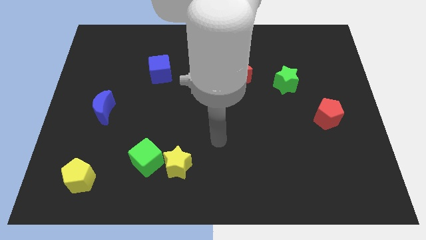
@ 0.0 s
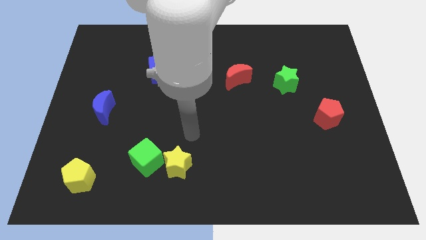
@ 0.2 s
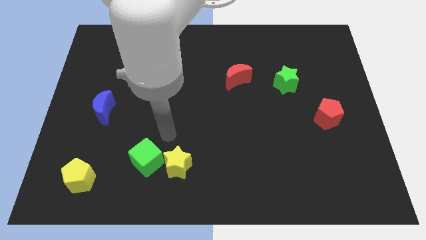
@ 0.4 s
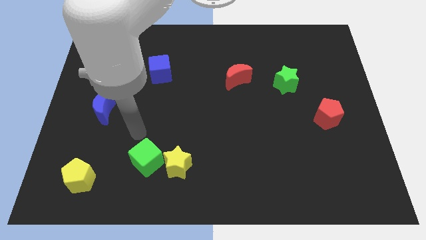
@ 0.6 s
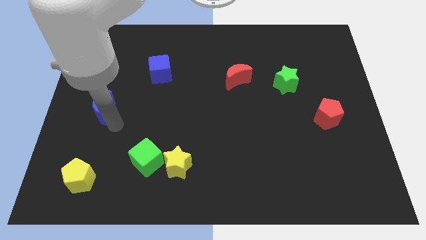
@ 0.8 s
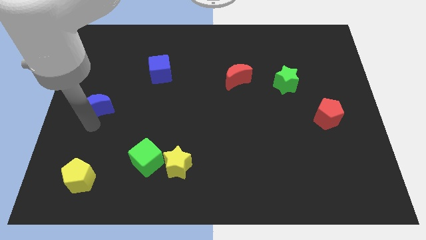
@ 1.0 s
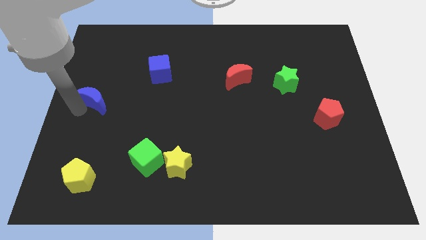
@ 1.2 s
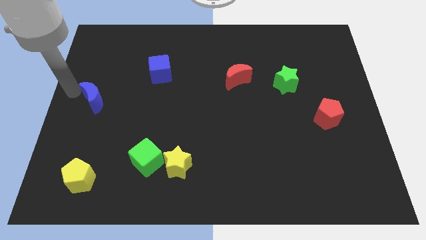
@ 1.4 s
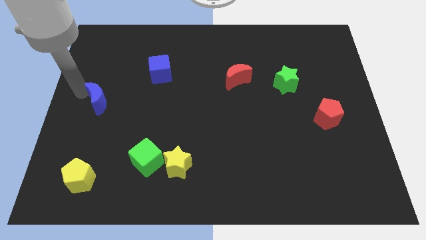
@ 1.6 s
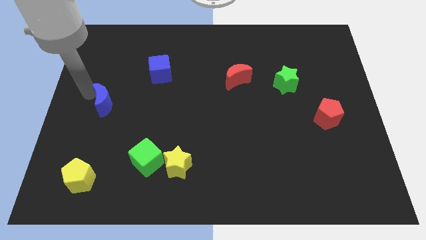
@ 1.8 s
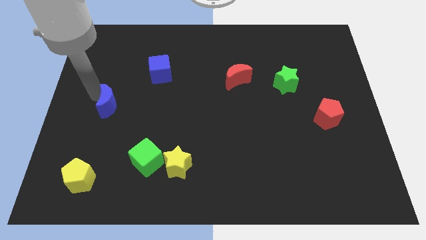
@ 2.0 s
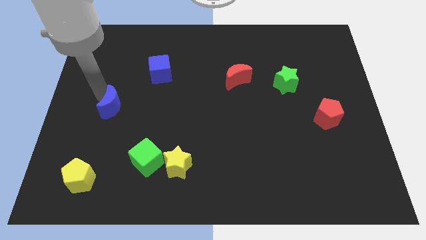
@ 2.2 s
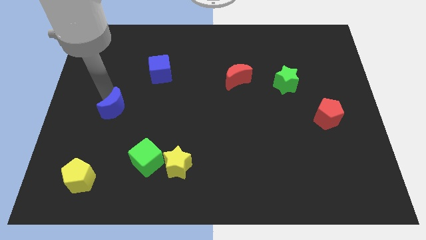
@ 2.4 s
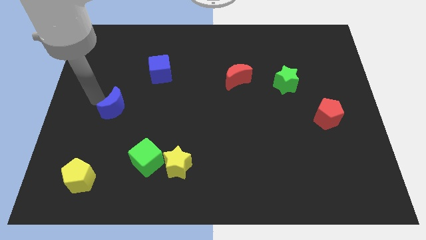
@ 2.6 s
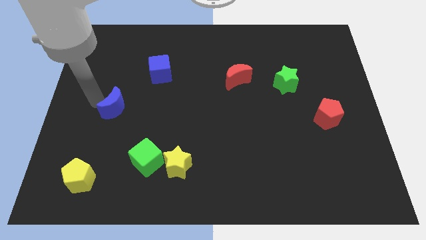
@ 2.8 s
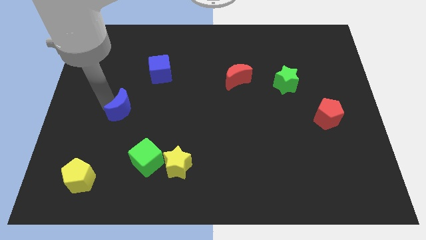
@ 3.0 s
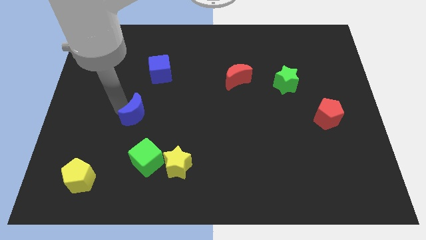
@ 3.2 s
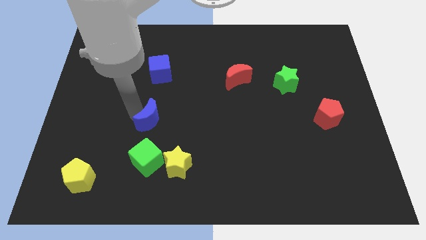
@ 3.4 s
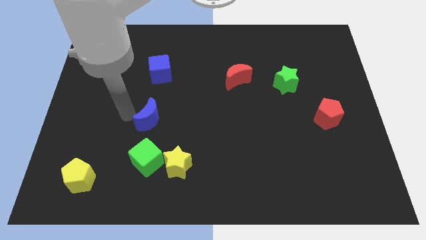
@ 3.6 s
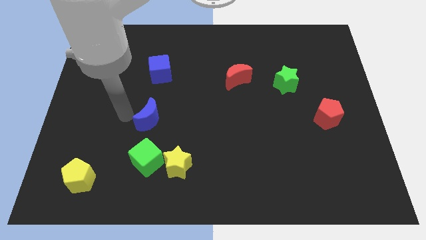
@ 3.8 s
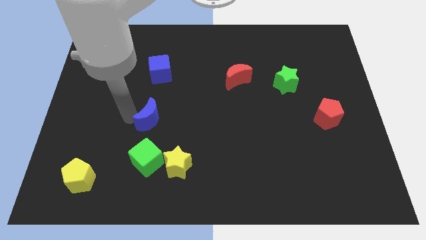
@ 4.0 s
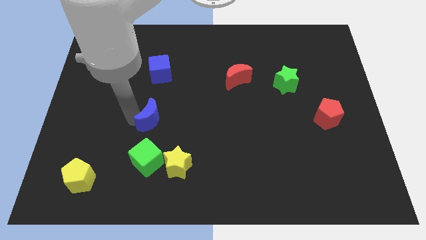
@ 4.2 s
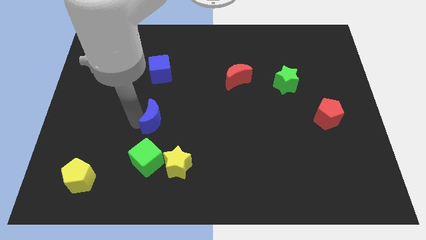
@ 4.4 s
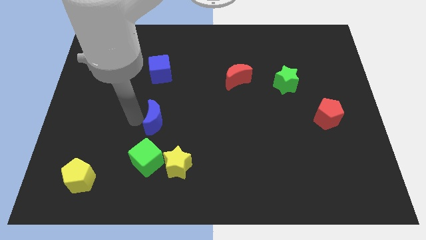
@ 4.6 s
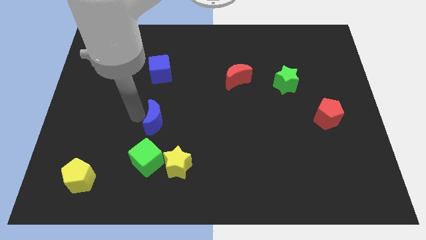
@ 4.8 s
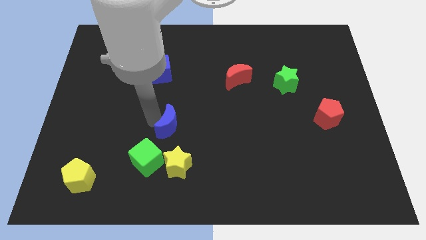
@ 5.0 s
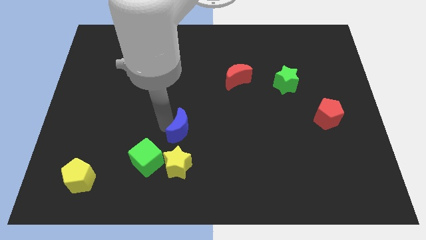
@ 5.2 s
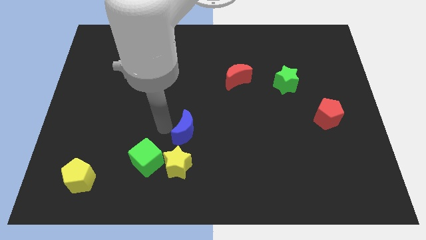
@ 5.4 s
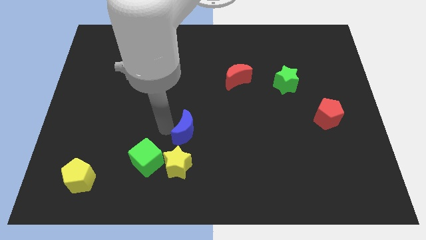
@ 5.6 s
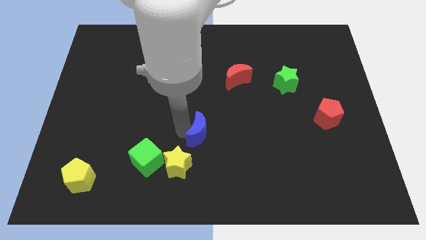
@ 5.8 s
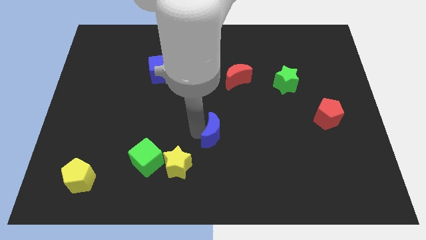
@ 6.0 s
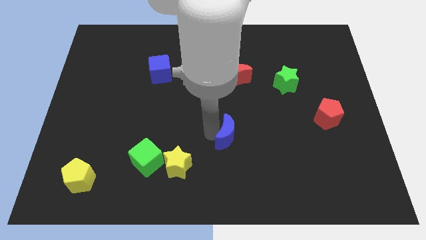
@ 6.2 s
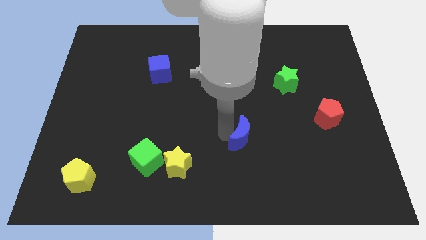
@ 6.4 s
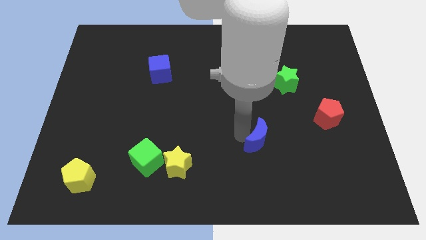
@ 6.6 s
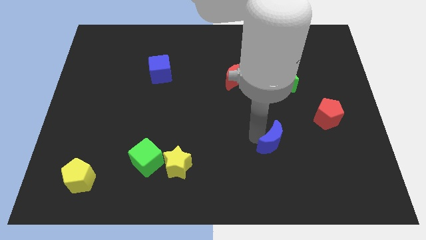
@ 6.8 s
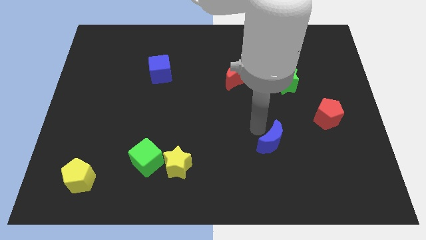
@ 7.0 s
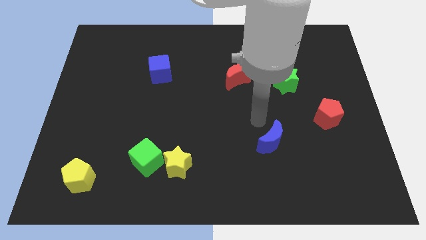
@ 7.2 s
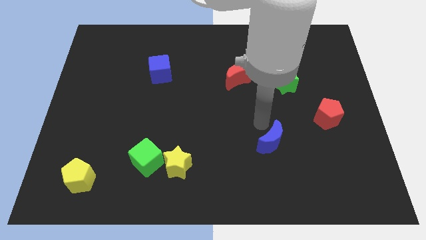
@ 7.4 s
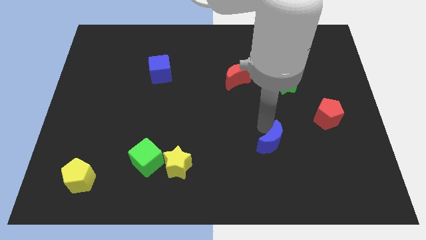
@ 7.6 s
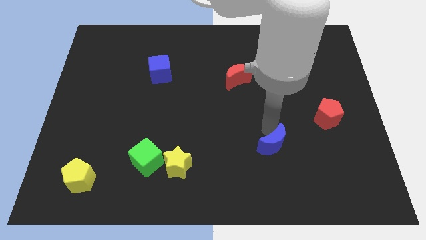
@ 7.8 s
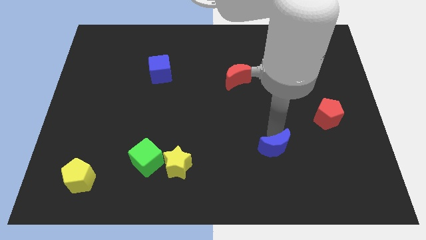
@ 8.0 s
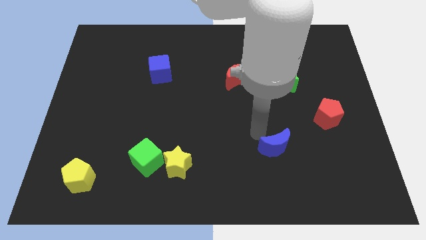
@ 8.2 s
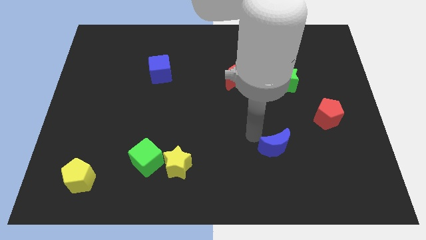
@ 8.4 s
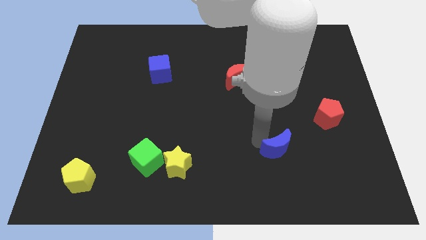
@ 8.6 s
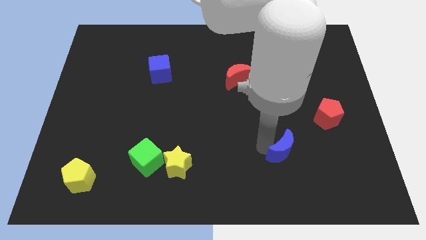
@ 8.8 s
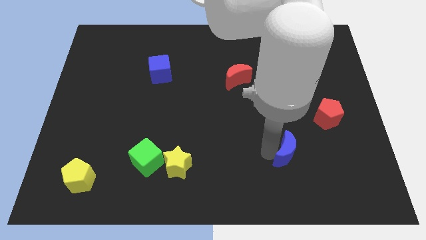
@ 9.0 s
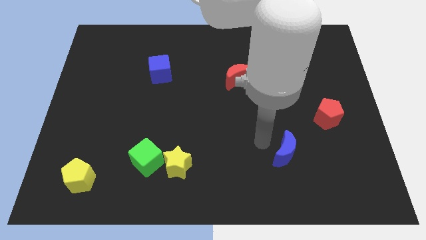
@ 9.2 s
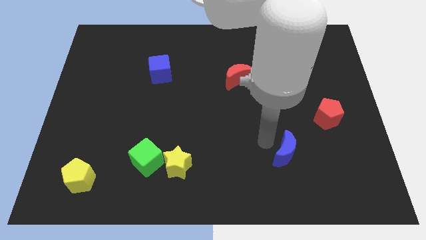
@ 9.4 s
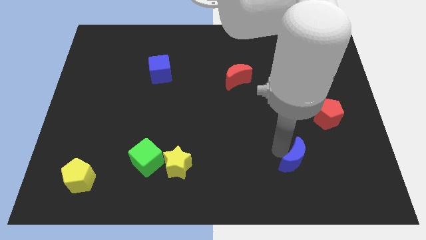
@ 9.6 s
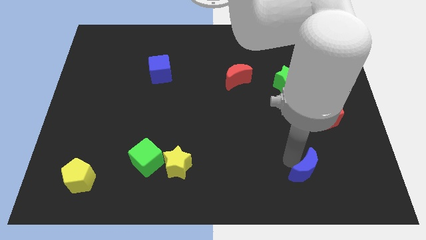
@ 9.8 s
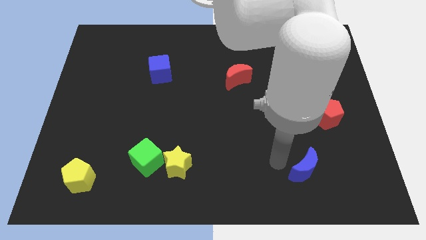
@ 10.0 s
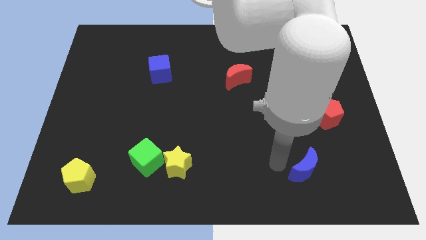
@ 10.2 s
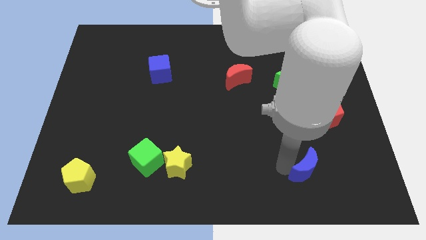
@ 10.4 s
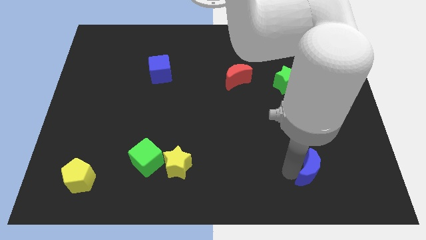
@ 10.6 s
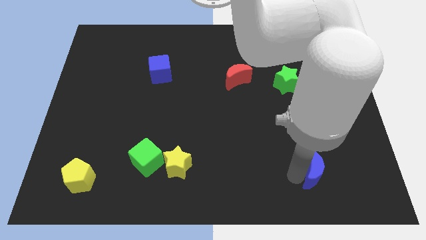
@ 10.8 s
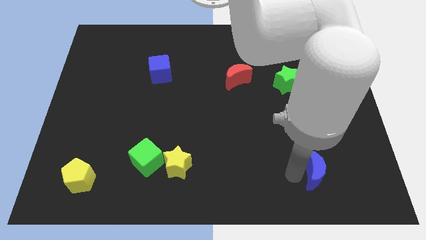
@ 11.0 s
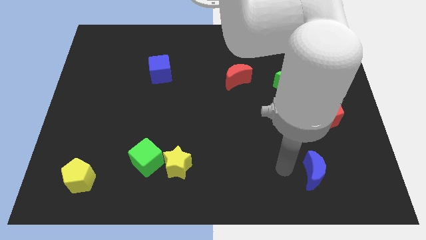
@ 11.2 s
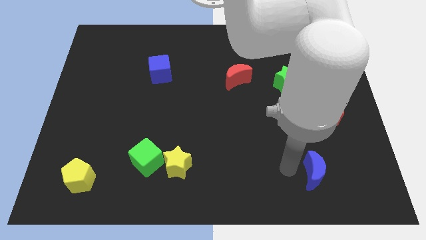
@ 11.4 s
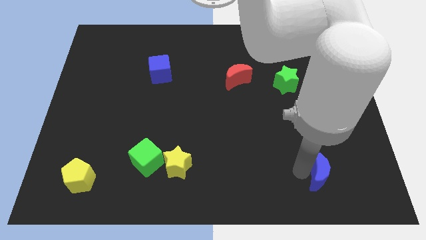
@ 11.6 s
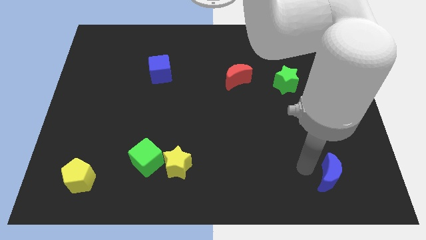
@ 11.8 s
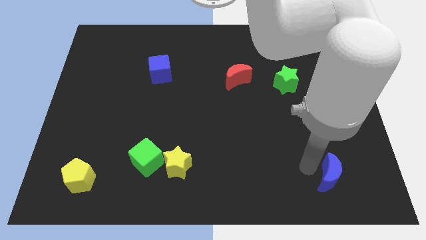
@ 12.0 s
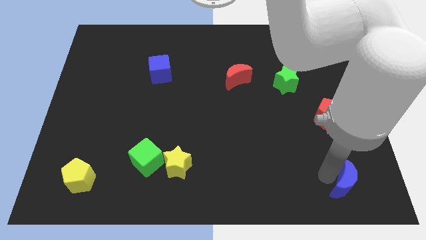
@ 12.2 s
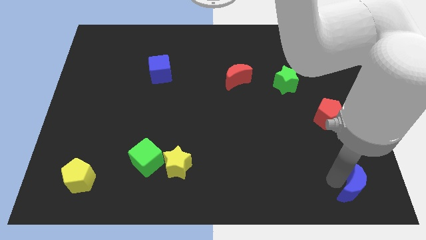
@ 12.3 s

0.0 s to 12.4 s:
move the blue moon to the bottom right
